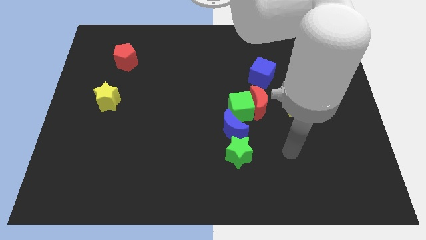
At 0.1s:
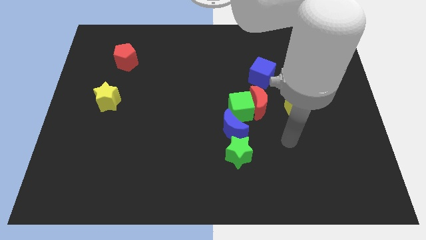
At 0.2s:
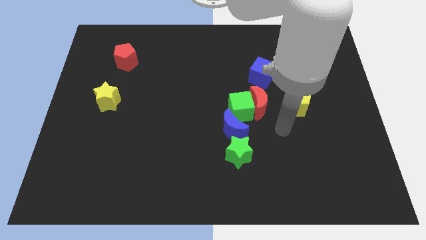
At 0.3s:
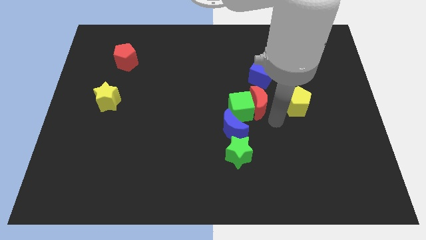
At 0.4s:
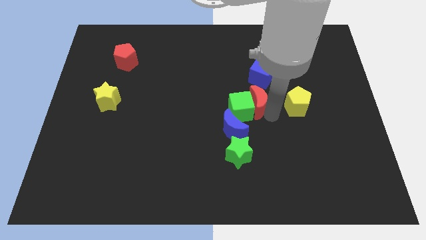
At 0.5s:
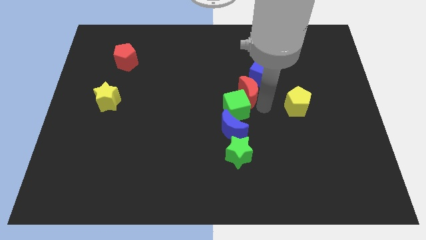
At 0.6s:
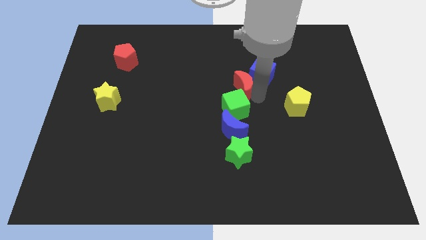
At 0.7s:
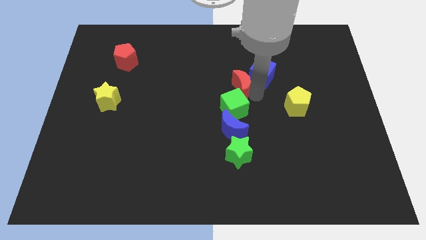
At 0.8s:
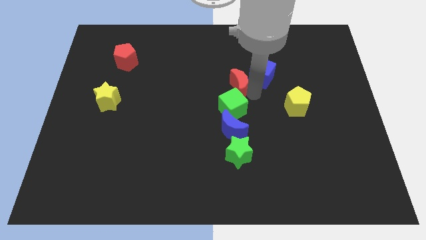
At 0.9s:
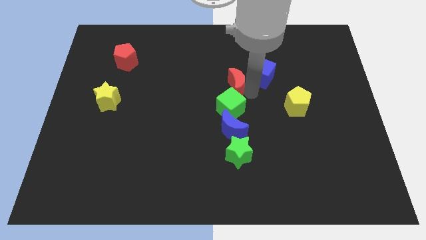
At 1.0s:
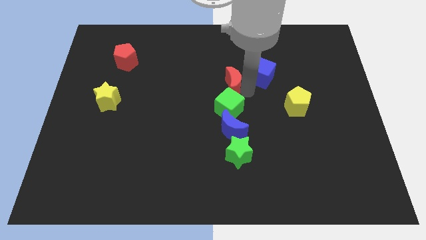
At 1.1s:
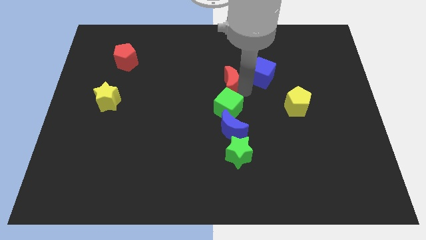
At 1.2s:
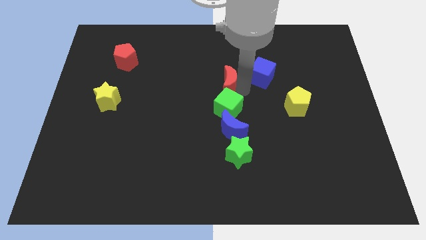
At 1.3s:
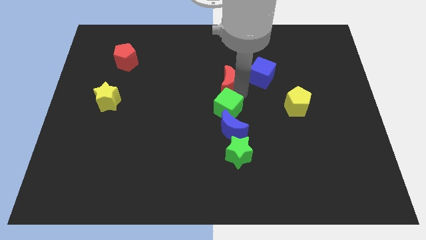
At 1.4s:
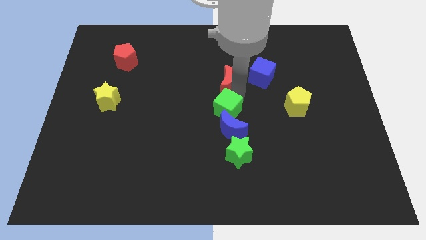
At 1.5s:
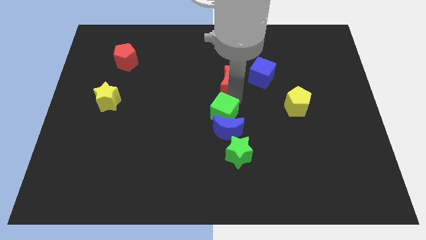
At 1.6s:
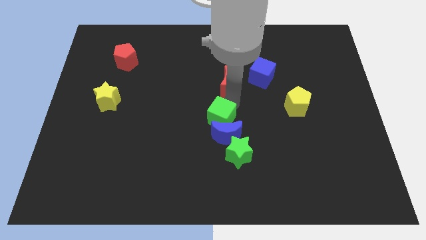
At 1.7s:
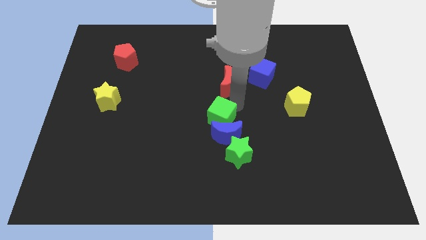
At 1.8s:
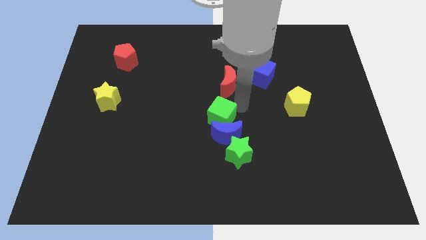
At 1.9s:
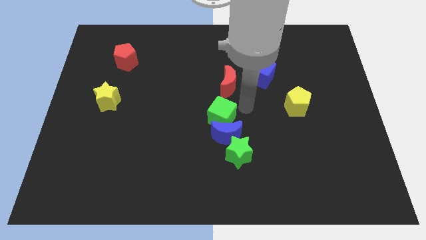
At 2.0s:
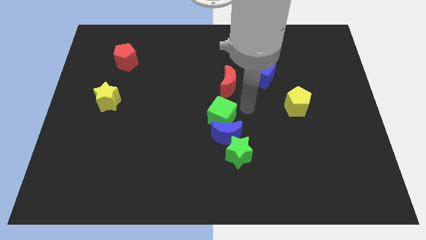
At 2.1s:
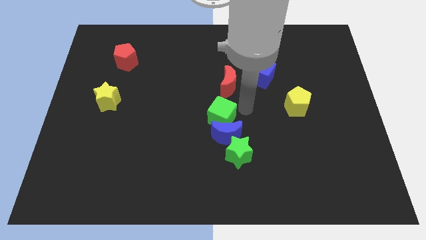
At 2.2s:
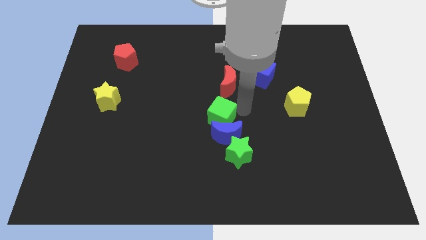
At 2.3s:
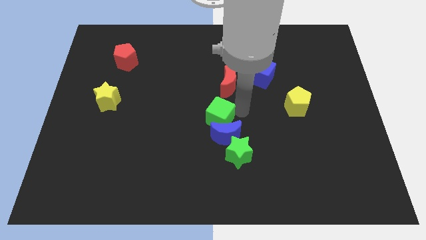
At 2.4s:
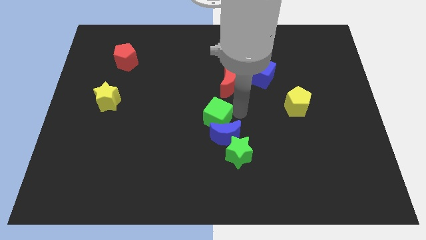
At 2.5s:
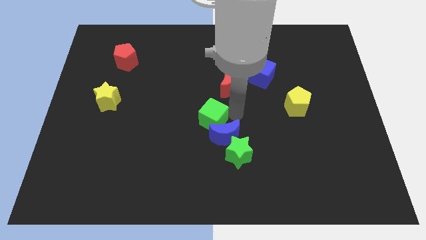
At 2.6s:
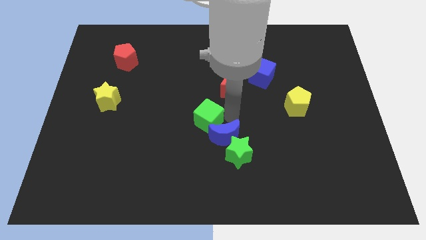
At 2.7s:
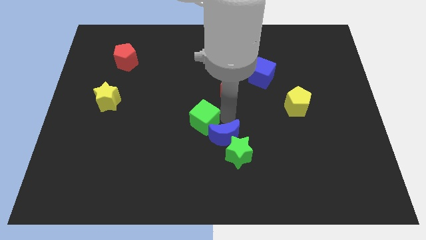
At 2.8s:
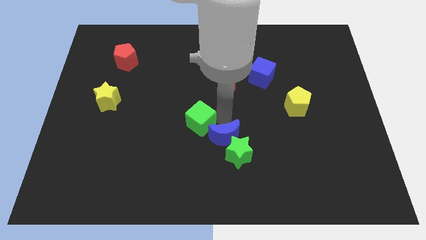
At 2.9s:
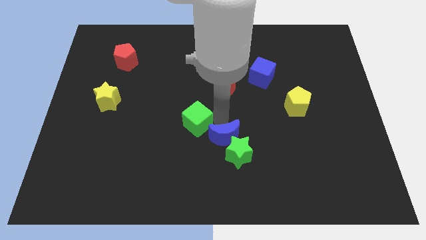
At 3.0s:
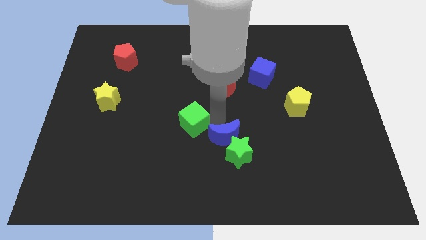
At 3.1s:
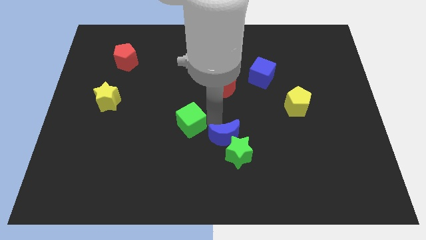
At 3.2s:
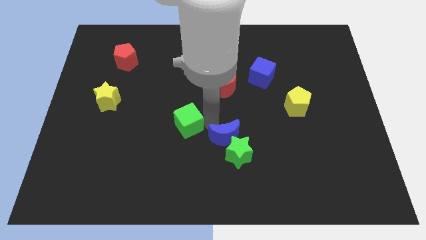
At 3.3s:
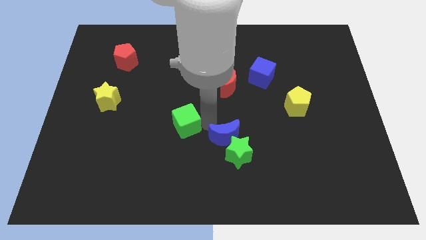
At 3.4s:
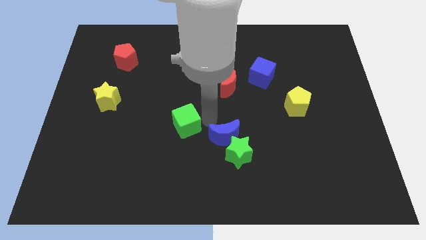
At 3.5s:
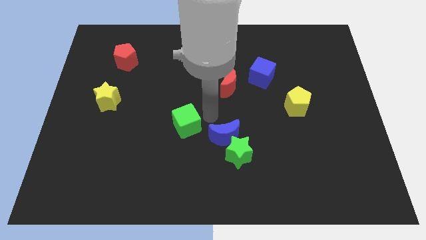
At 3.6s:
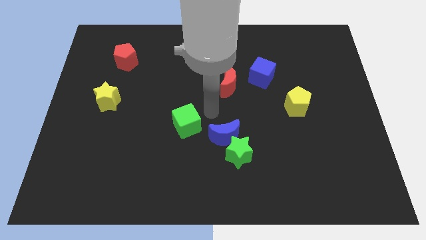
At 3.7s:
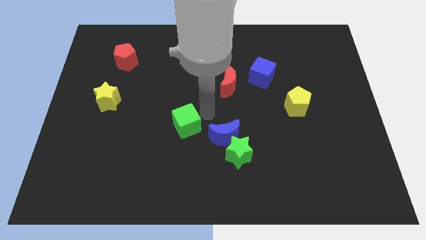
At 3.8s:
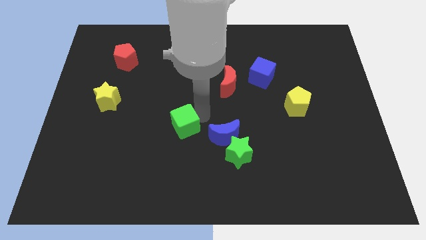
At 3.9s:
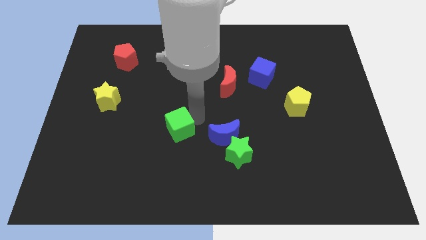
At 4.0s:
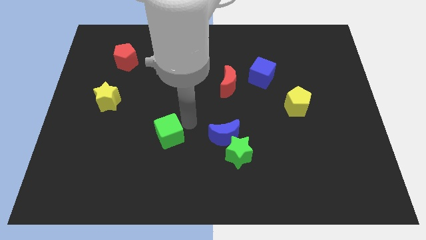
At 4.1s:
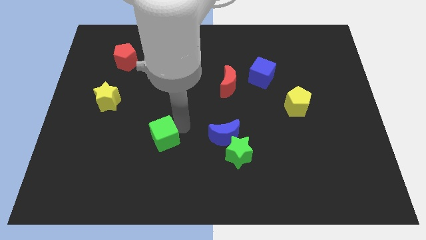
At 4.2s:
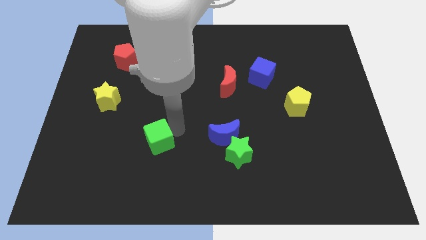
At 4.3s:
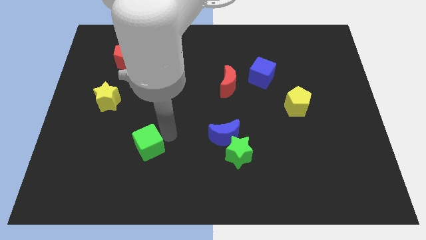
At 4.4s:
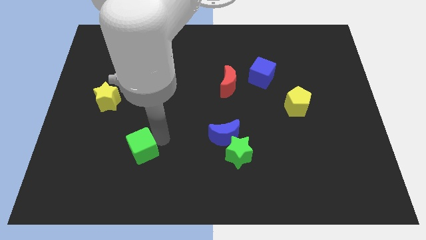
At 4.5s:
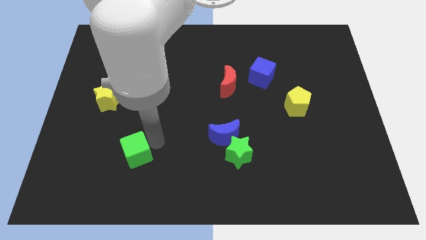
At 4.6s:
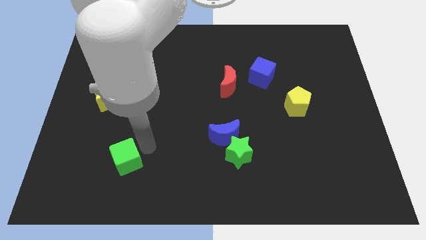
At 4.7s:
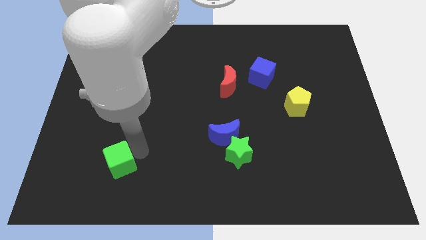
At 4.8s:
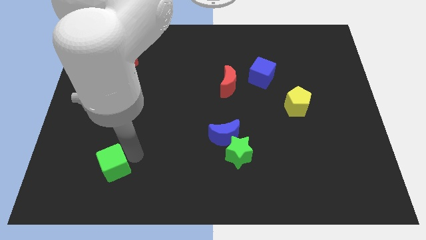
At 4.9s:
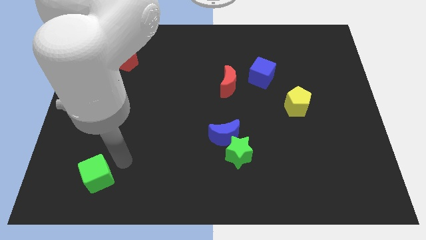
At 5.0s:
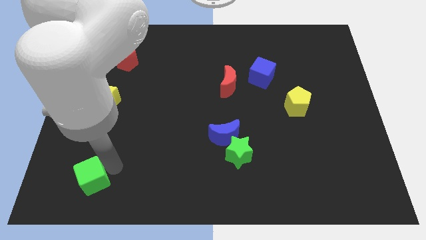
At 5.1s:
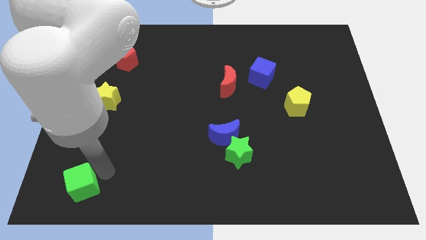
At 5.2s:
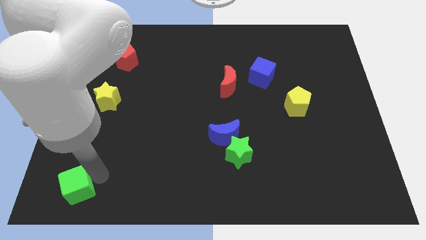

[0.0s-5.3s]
move the green cube to the bottom left of the board

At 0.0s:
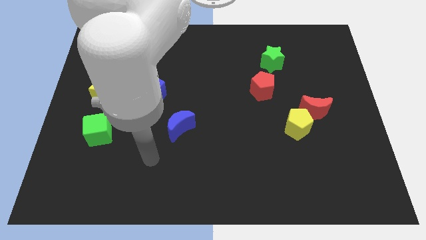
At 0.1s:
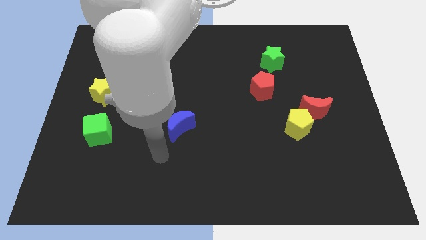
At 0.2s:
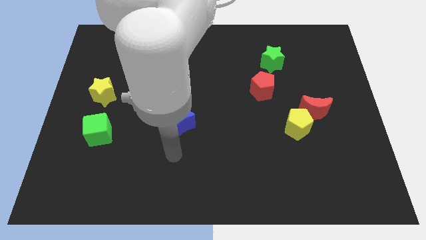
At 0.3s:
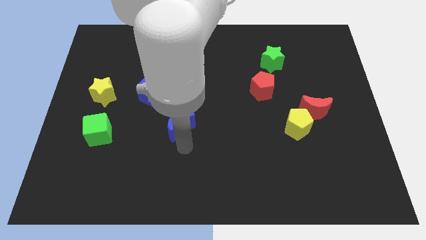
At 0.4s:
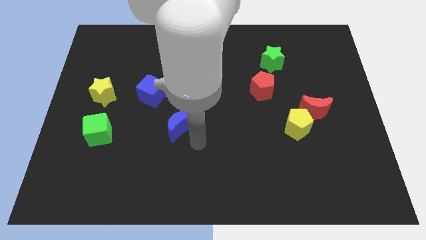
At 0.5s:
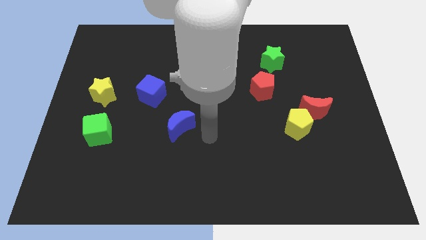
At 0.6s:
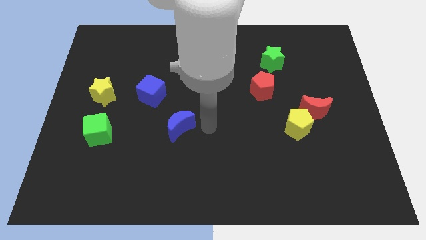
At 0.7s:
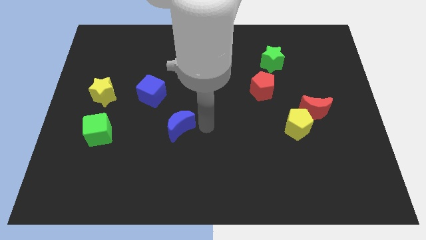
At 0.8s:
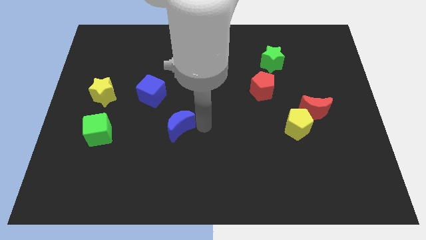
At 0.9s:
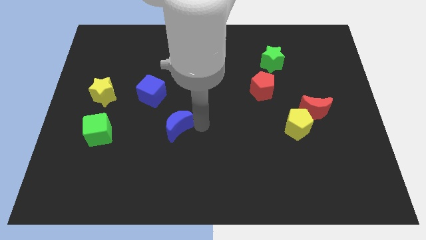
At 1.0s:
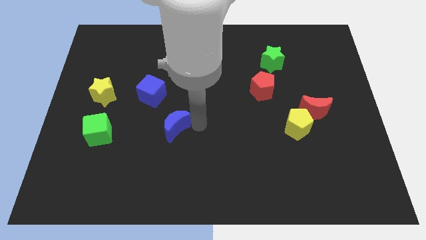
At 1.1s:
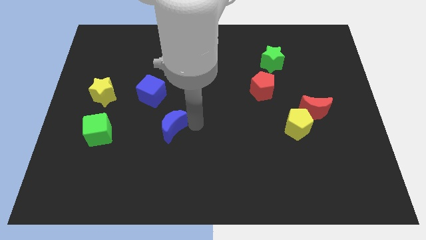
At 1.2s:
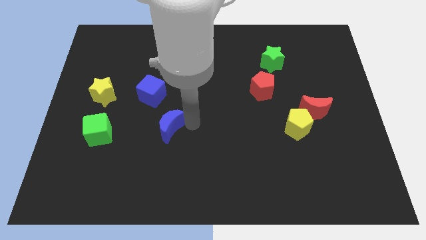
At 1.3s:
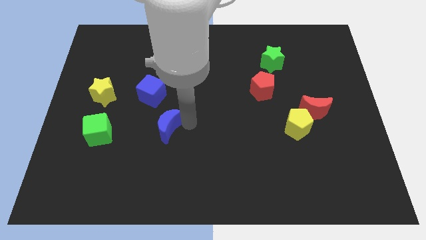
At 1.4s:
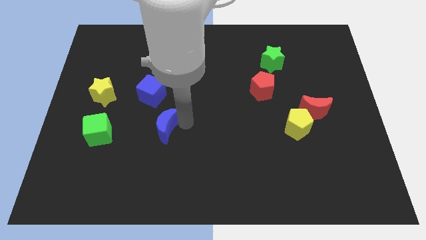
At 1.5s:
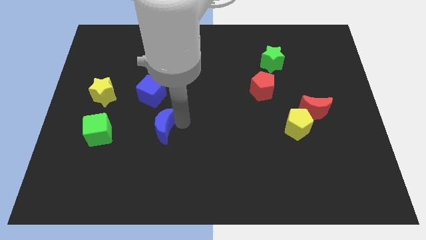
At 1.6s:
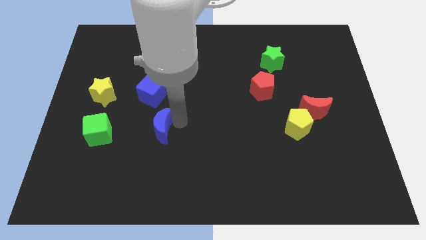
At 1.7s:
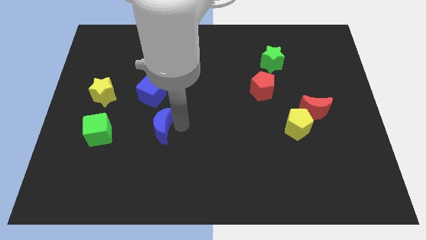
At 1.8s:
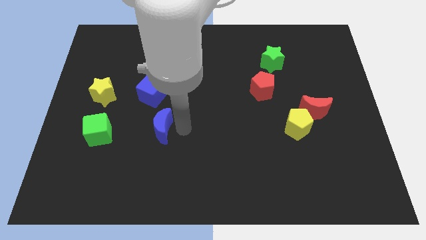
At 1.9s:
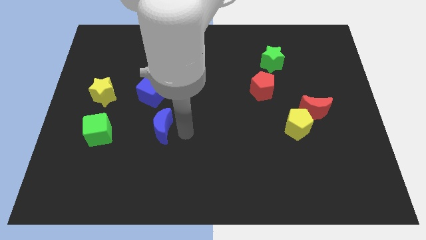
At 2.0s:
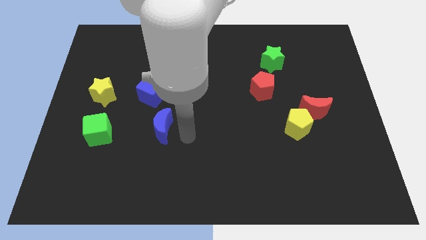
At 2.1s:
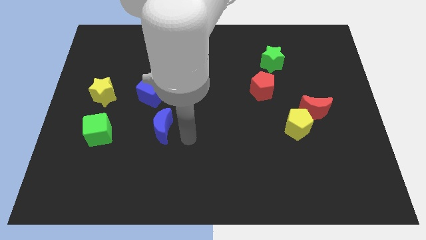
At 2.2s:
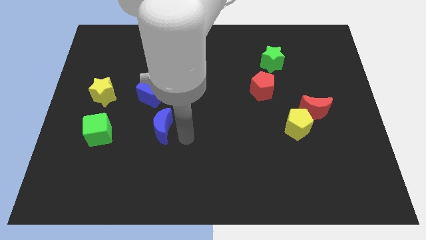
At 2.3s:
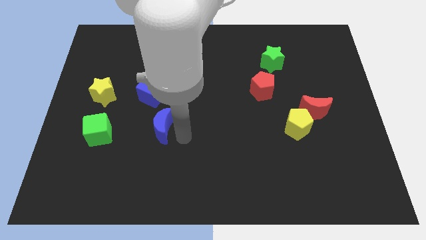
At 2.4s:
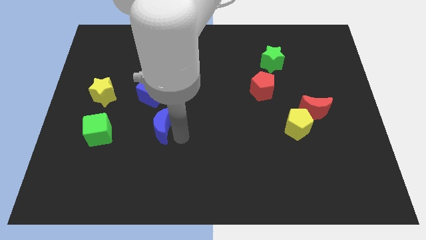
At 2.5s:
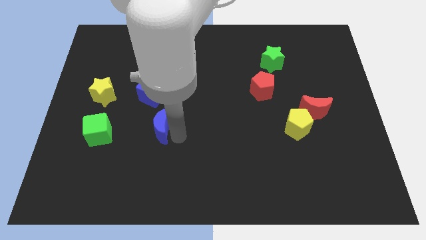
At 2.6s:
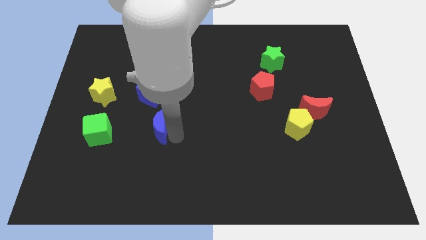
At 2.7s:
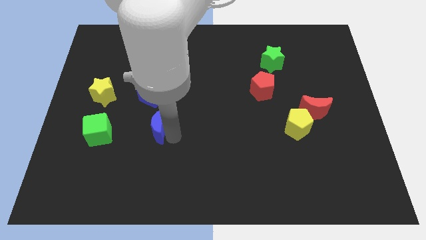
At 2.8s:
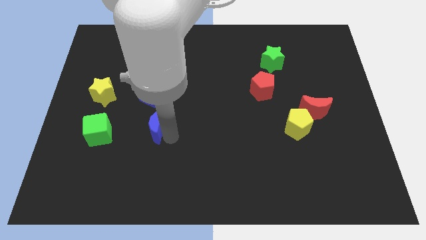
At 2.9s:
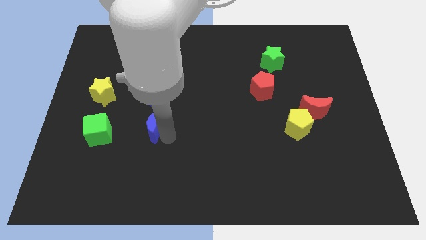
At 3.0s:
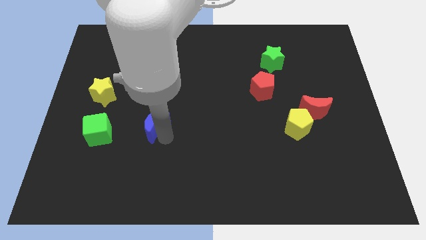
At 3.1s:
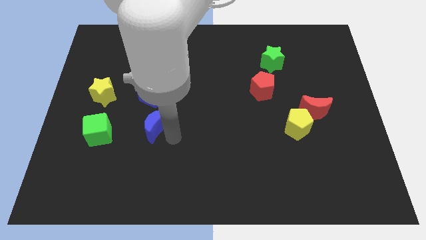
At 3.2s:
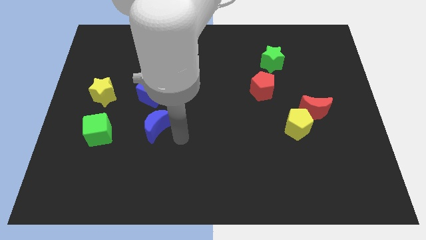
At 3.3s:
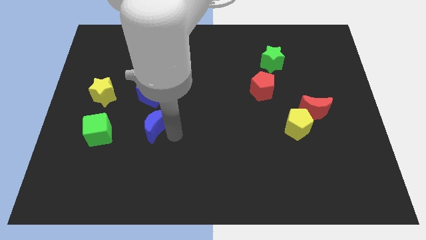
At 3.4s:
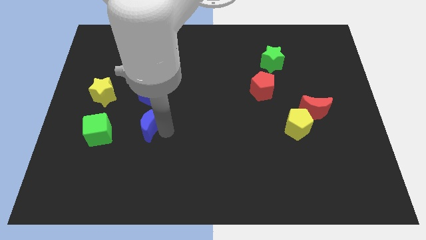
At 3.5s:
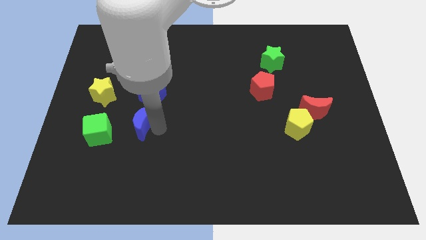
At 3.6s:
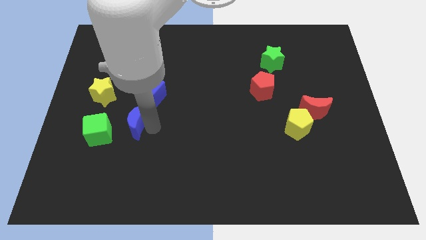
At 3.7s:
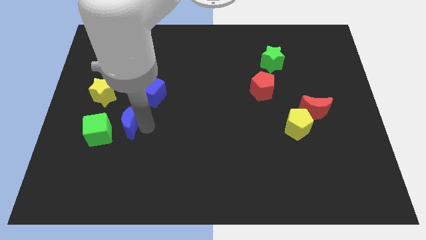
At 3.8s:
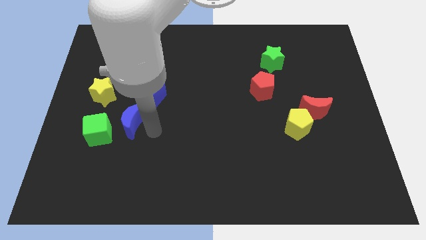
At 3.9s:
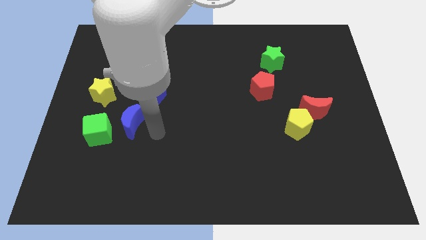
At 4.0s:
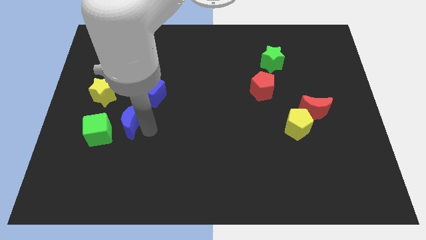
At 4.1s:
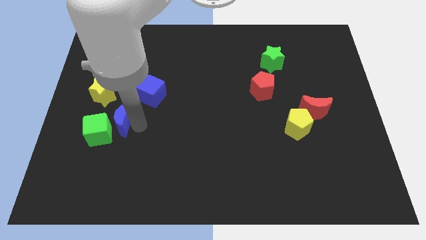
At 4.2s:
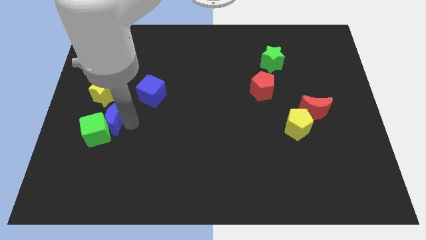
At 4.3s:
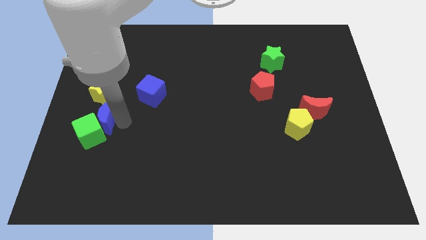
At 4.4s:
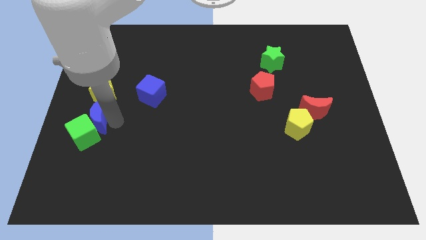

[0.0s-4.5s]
put the blue moon to the left side
